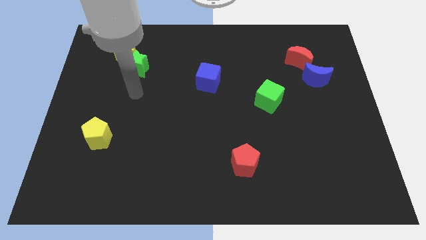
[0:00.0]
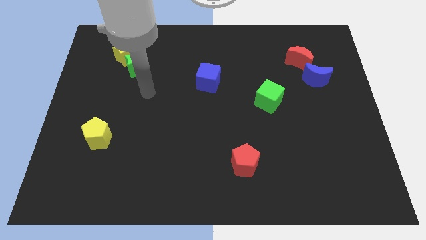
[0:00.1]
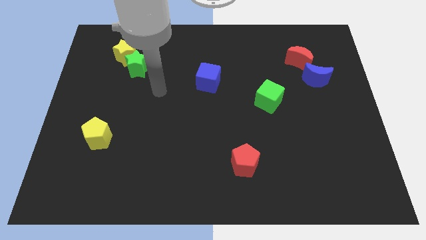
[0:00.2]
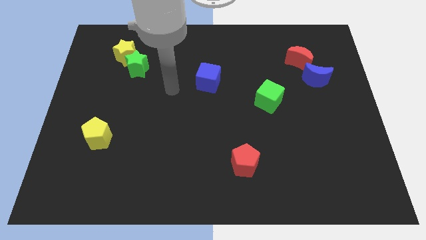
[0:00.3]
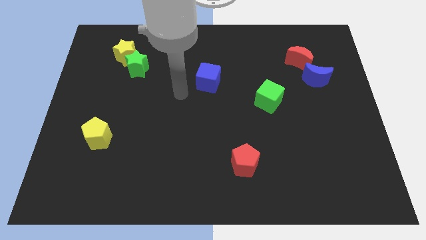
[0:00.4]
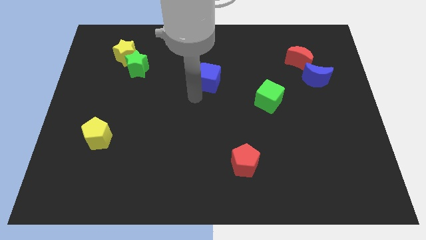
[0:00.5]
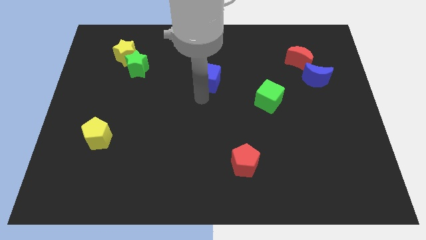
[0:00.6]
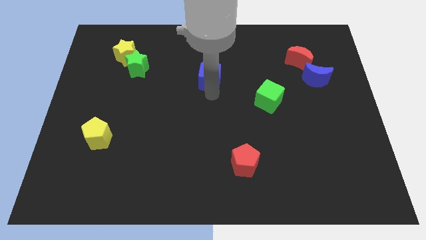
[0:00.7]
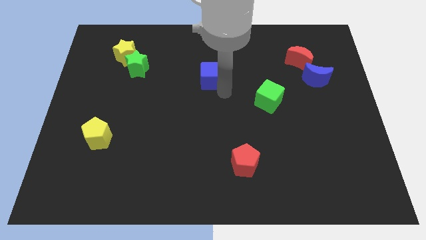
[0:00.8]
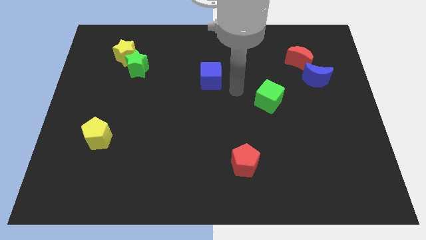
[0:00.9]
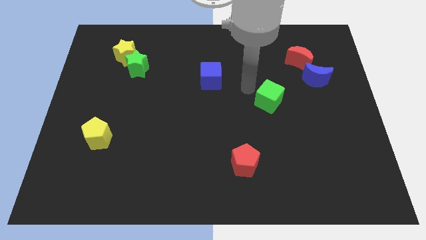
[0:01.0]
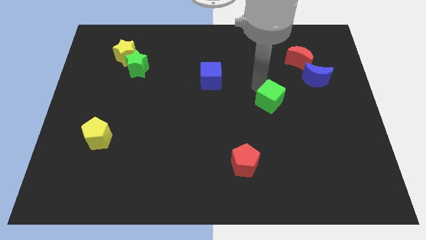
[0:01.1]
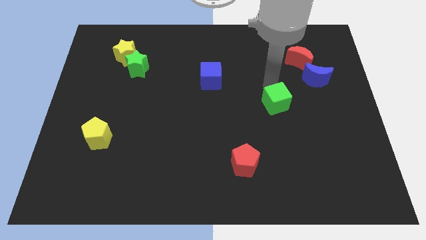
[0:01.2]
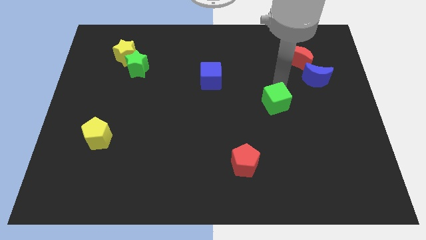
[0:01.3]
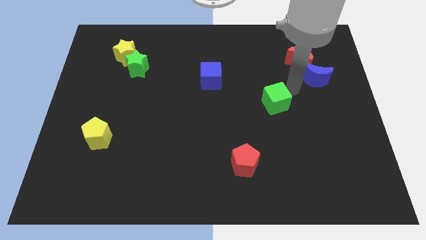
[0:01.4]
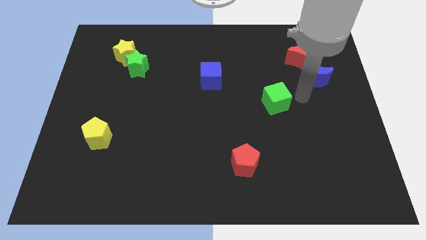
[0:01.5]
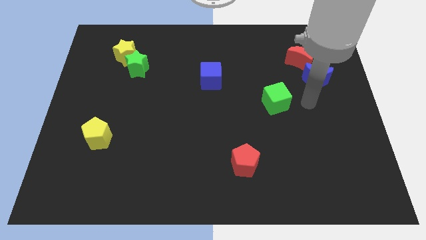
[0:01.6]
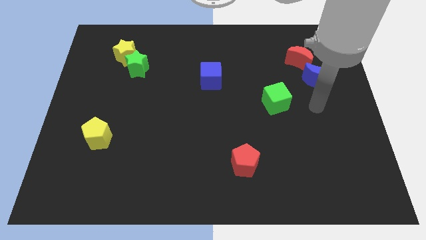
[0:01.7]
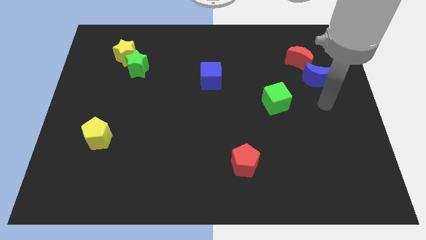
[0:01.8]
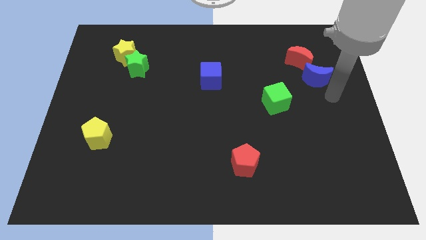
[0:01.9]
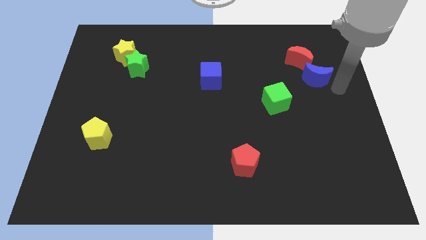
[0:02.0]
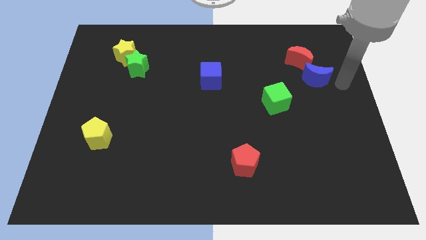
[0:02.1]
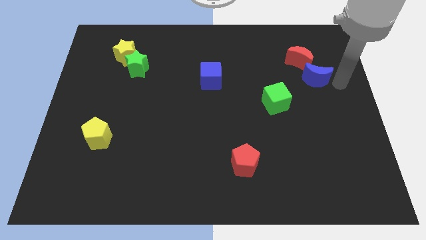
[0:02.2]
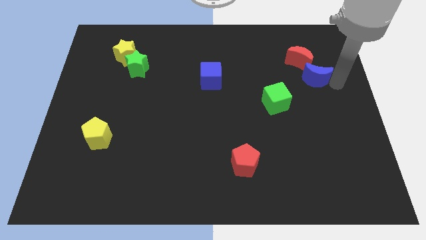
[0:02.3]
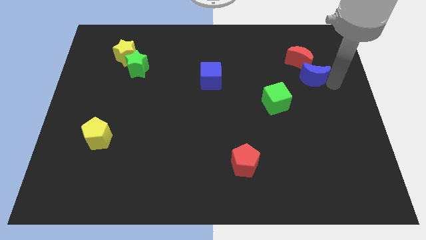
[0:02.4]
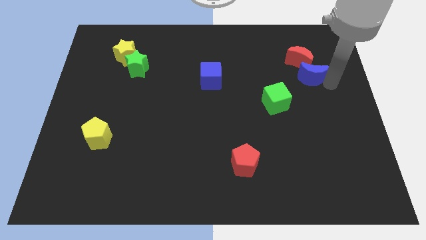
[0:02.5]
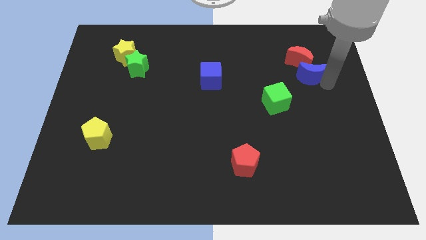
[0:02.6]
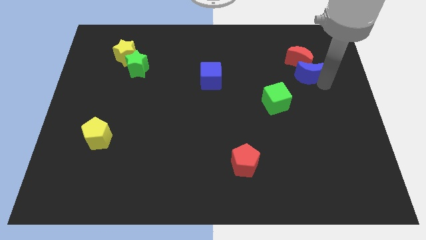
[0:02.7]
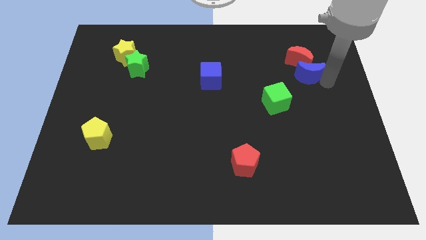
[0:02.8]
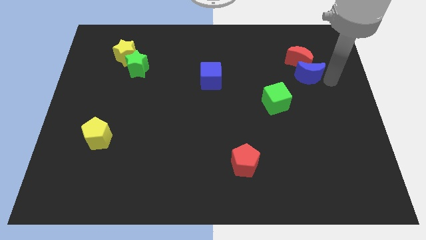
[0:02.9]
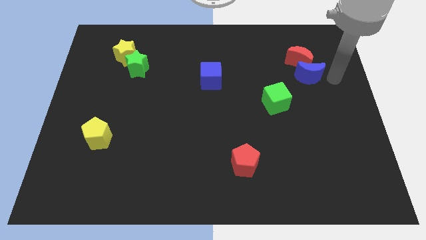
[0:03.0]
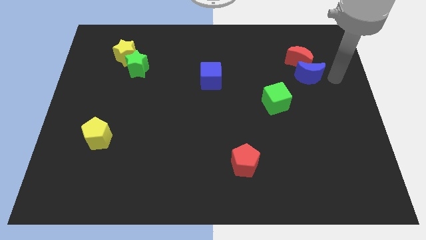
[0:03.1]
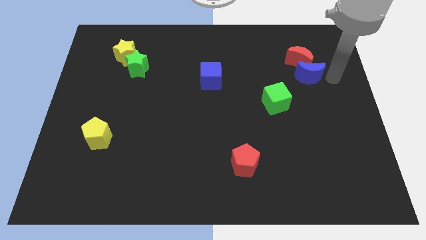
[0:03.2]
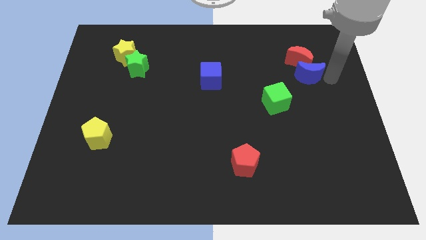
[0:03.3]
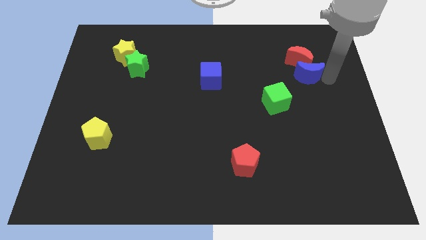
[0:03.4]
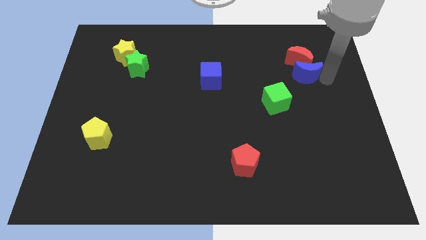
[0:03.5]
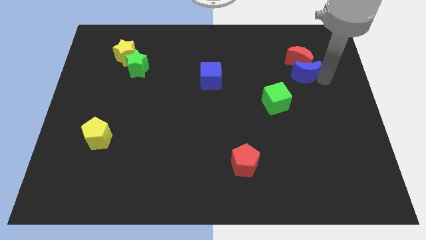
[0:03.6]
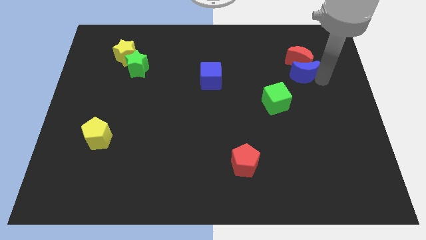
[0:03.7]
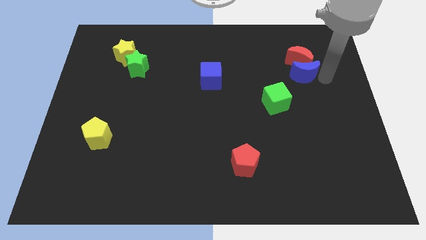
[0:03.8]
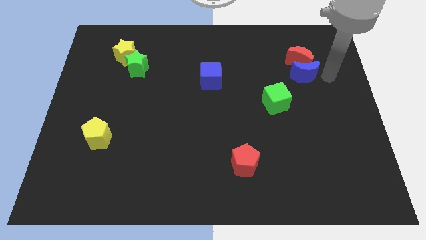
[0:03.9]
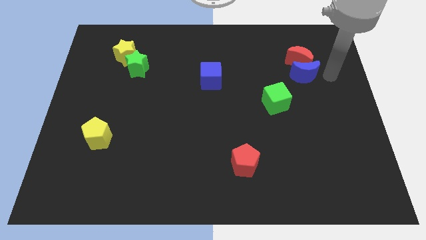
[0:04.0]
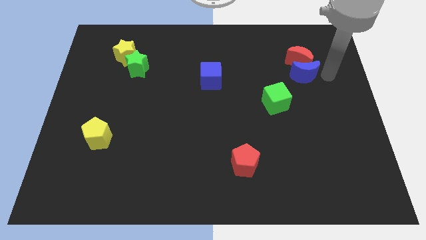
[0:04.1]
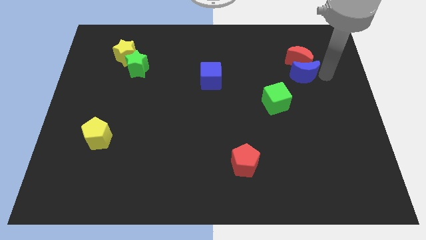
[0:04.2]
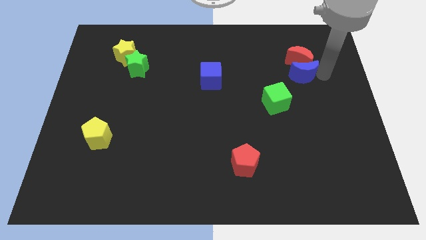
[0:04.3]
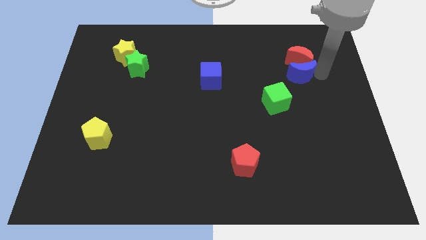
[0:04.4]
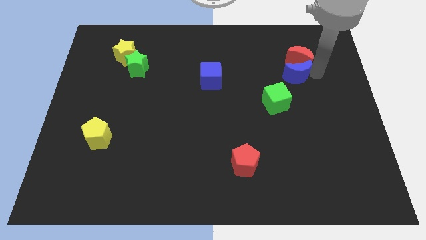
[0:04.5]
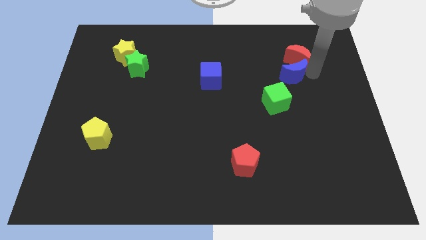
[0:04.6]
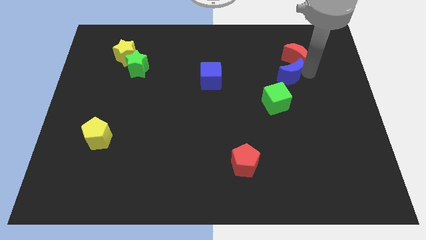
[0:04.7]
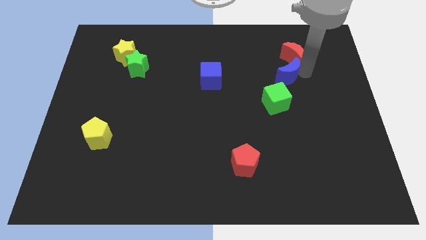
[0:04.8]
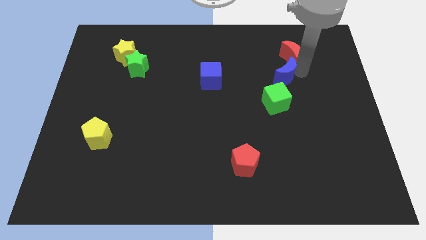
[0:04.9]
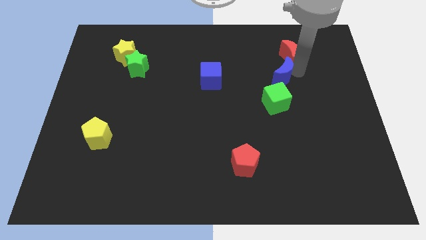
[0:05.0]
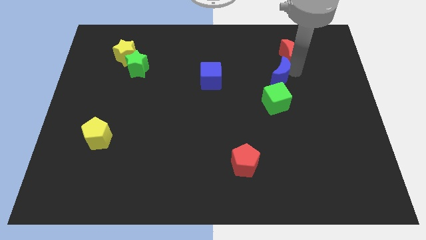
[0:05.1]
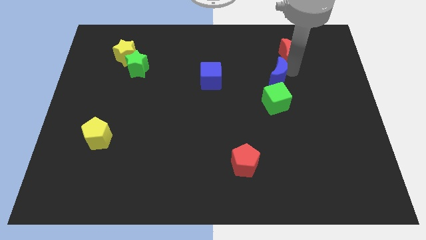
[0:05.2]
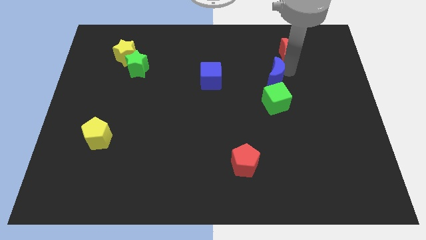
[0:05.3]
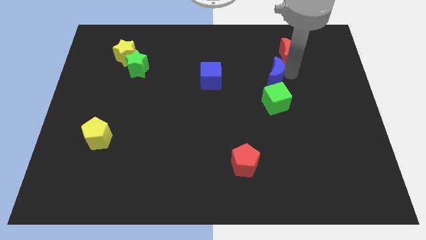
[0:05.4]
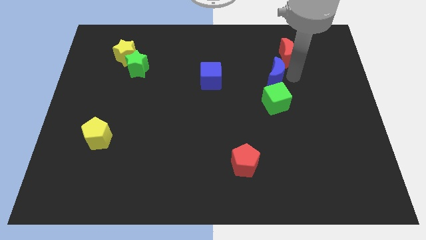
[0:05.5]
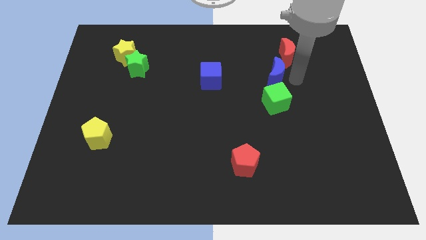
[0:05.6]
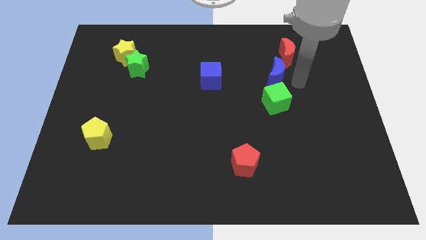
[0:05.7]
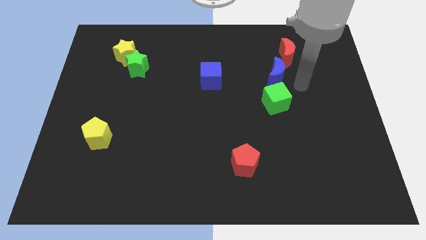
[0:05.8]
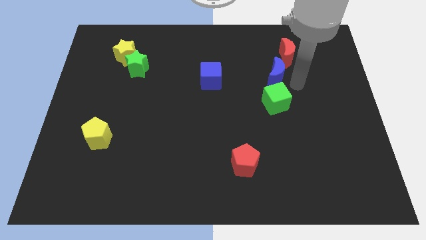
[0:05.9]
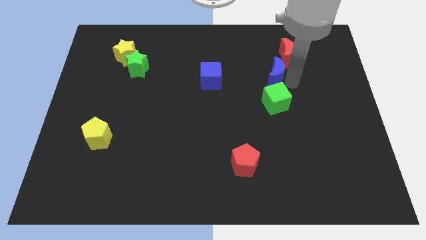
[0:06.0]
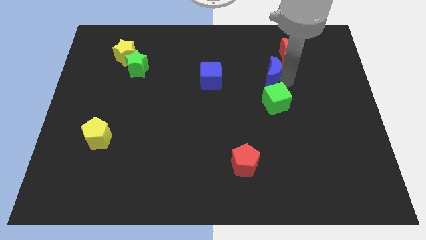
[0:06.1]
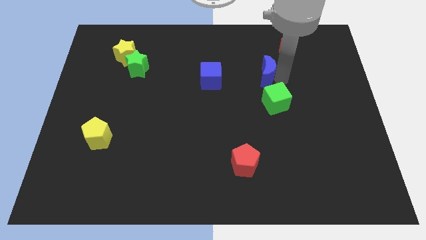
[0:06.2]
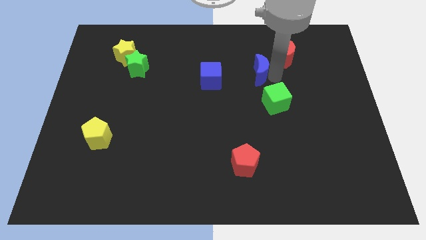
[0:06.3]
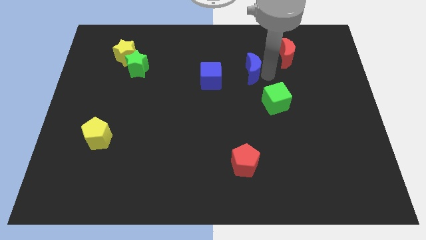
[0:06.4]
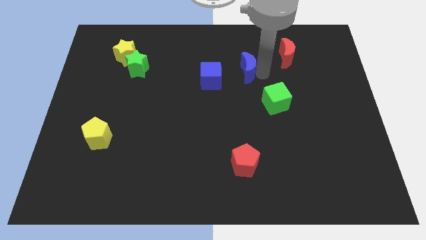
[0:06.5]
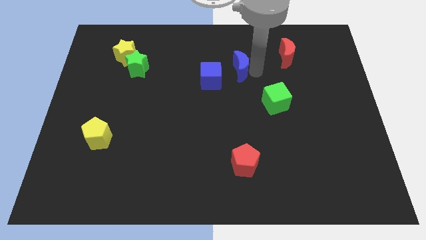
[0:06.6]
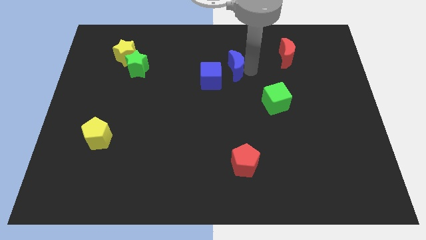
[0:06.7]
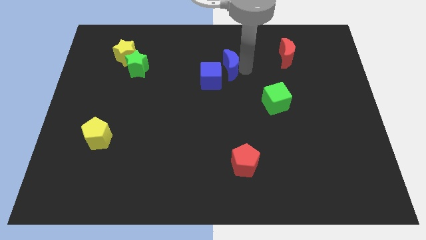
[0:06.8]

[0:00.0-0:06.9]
slide the blue moon left

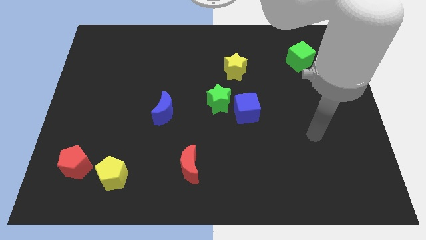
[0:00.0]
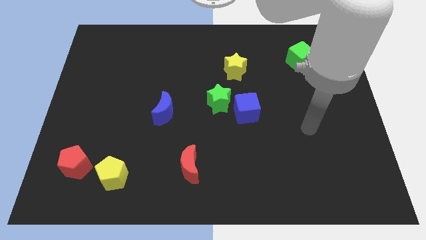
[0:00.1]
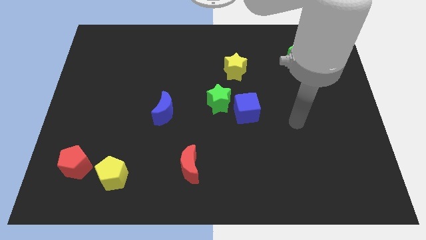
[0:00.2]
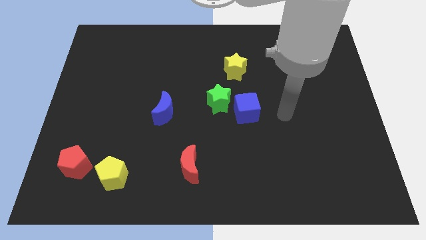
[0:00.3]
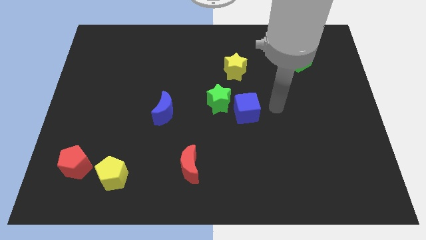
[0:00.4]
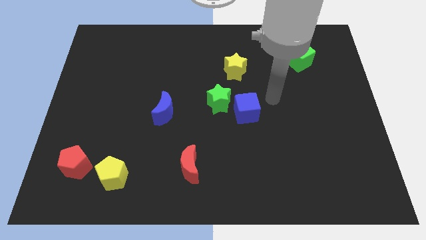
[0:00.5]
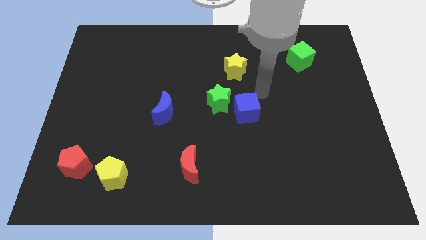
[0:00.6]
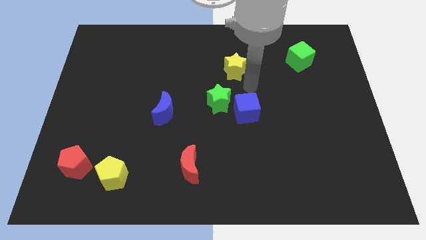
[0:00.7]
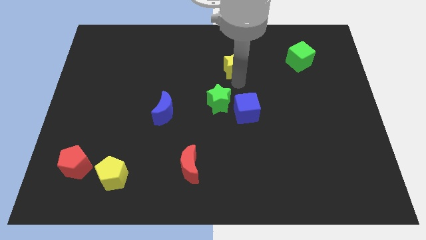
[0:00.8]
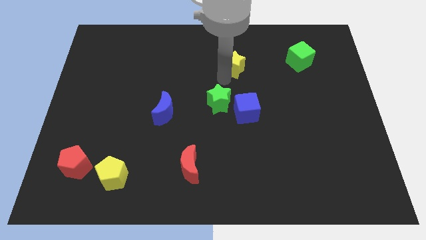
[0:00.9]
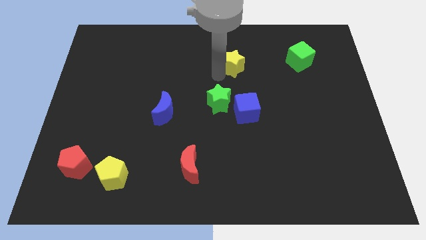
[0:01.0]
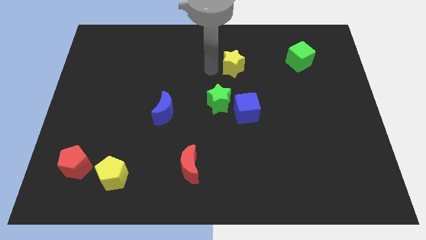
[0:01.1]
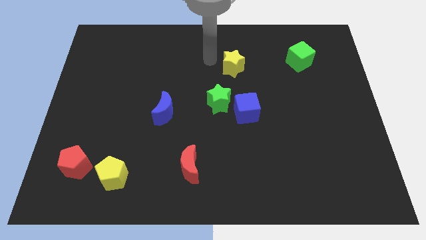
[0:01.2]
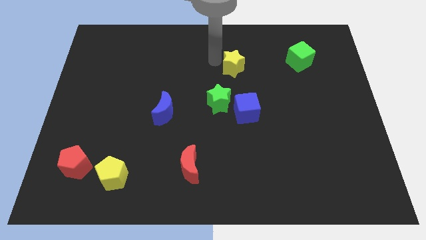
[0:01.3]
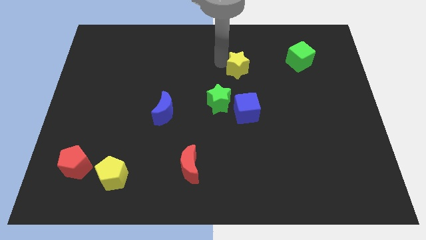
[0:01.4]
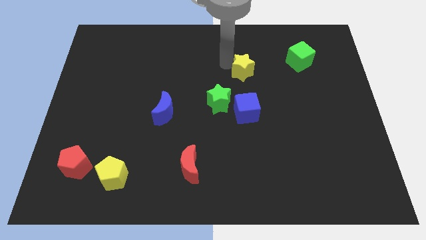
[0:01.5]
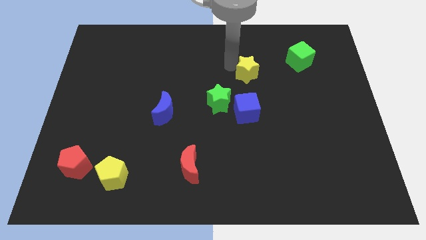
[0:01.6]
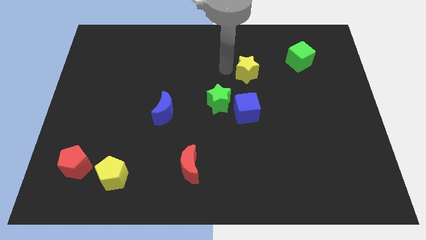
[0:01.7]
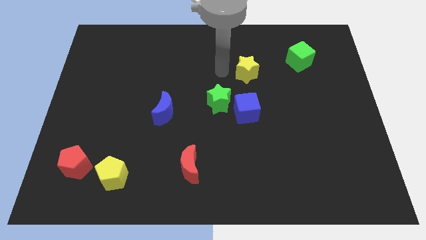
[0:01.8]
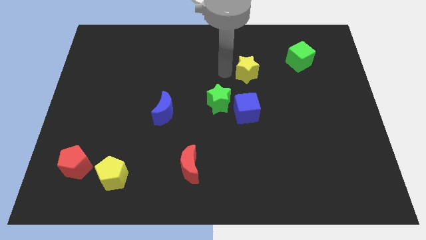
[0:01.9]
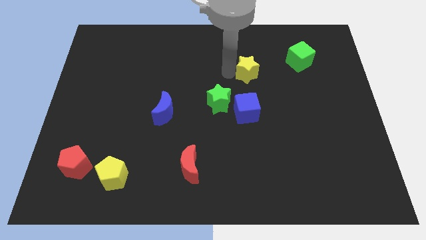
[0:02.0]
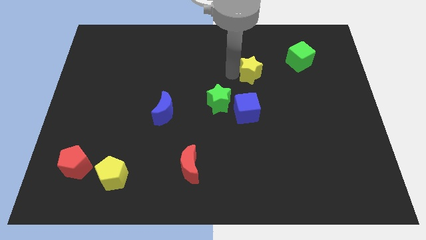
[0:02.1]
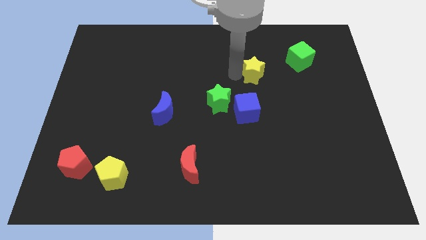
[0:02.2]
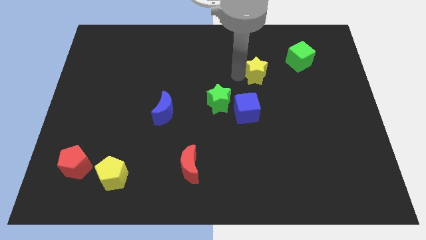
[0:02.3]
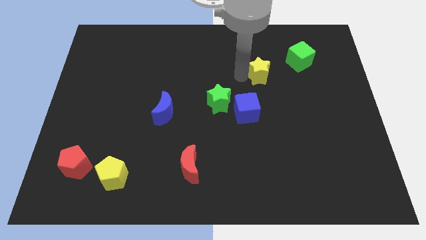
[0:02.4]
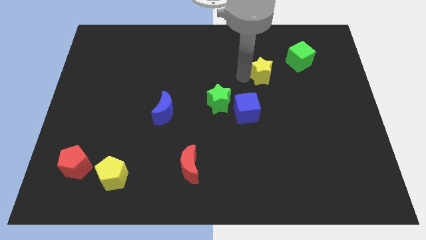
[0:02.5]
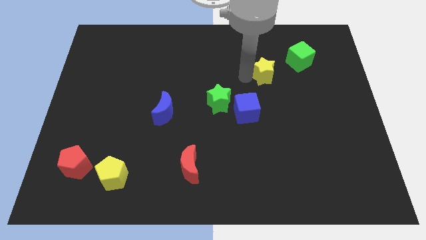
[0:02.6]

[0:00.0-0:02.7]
slightly push the yellow star to the right
